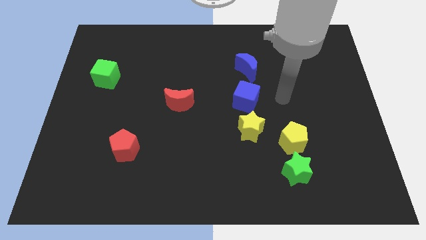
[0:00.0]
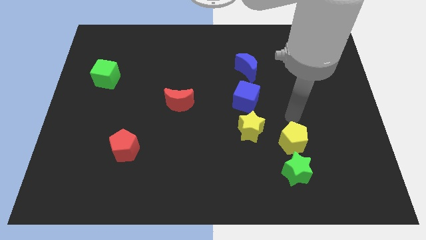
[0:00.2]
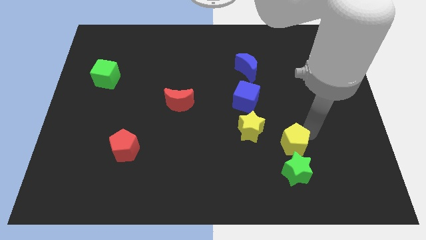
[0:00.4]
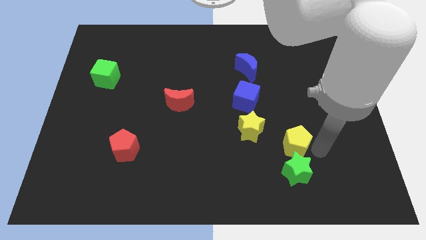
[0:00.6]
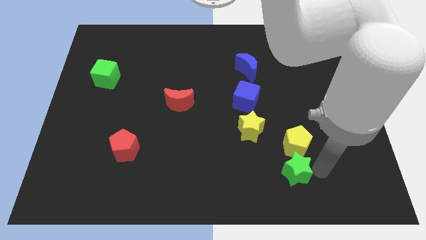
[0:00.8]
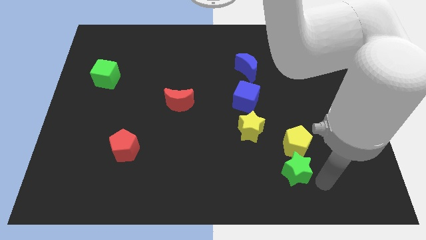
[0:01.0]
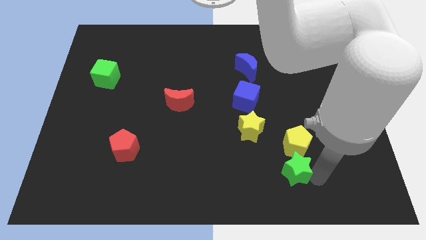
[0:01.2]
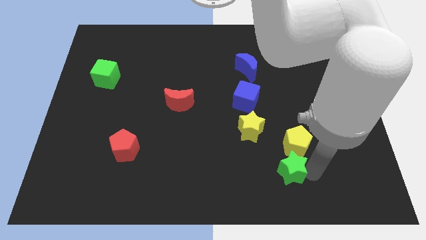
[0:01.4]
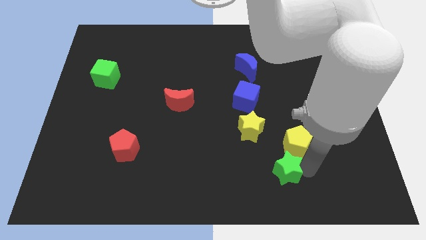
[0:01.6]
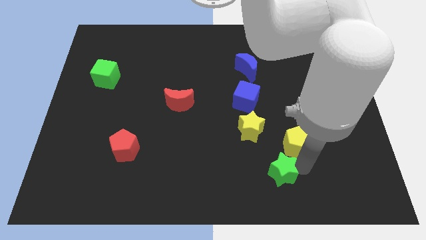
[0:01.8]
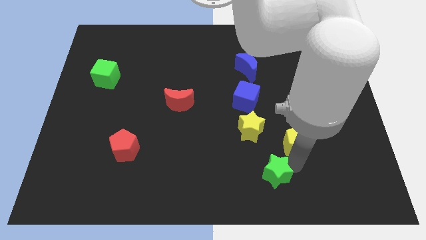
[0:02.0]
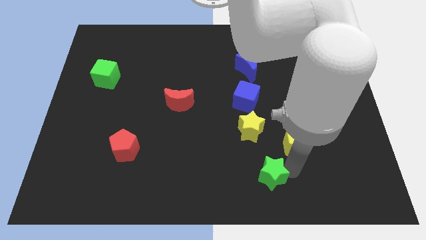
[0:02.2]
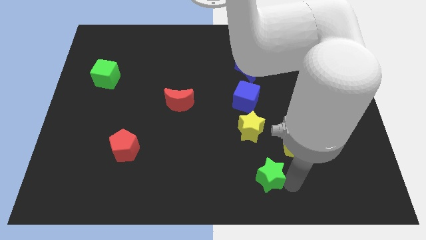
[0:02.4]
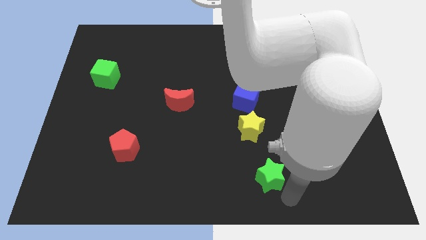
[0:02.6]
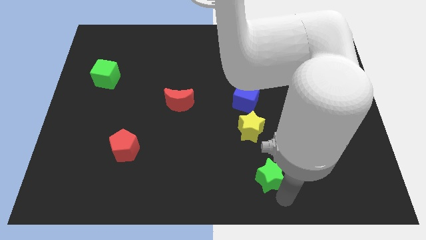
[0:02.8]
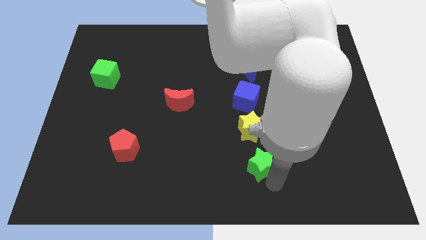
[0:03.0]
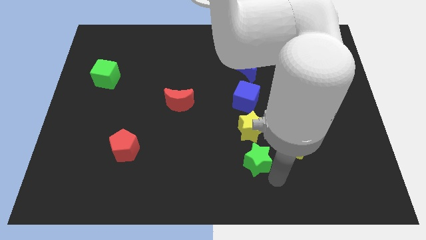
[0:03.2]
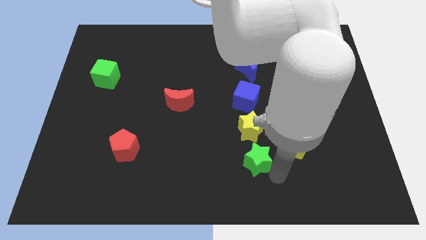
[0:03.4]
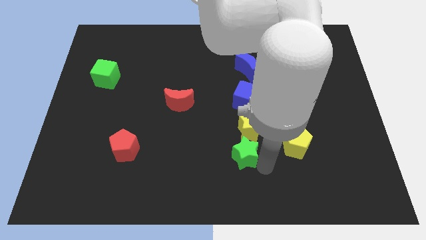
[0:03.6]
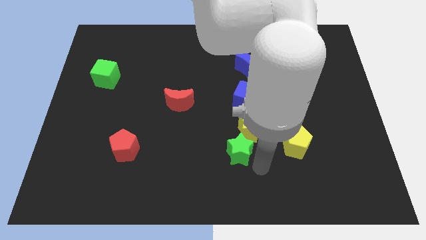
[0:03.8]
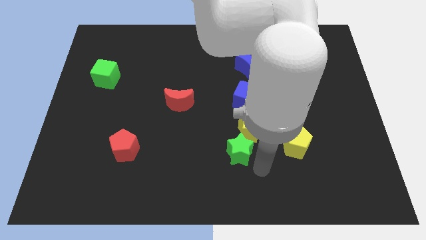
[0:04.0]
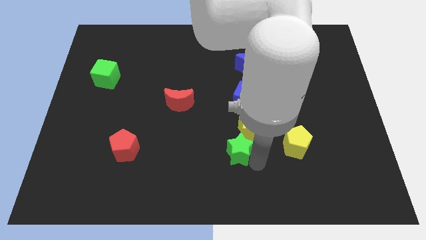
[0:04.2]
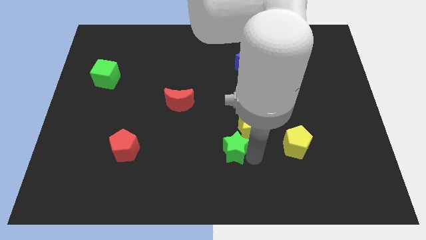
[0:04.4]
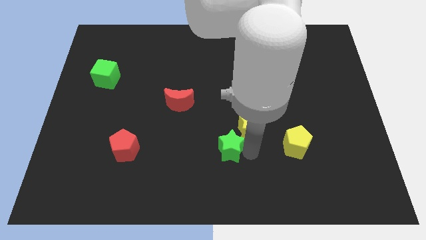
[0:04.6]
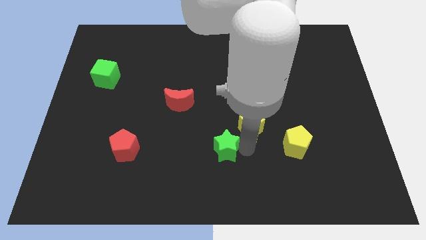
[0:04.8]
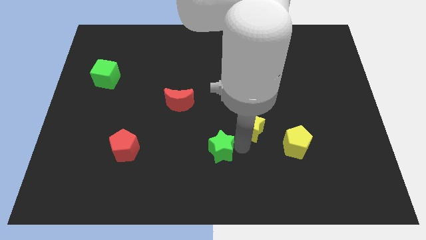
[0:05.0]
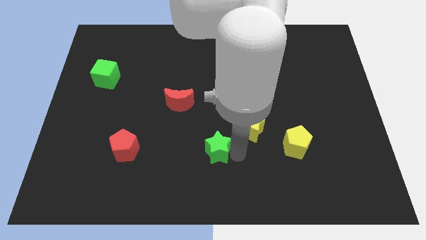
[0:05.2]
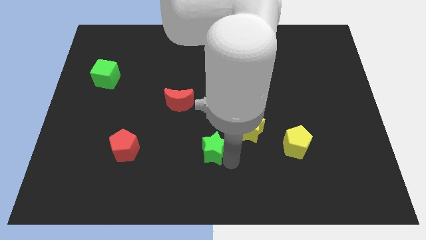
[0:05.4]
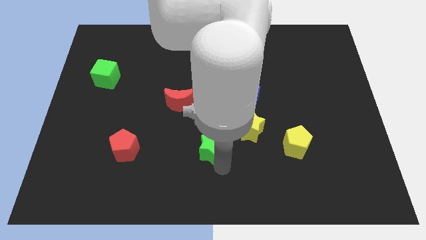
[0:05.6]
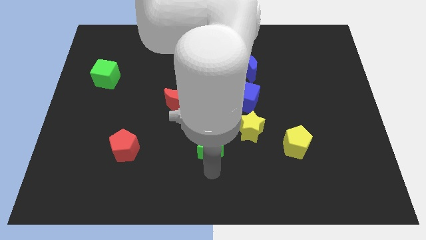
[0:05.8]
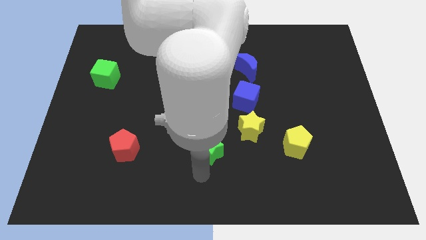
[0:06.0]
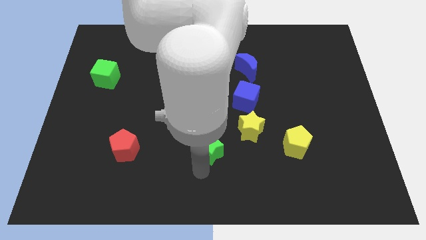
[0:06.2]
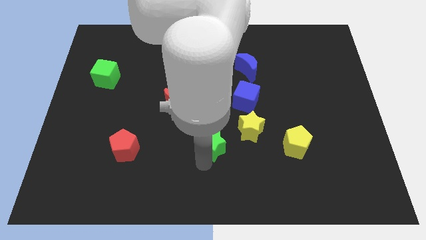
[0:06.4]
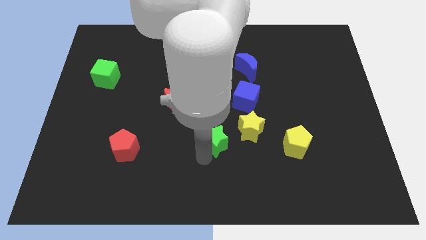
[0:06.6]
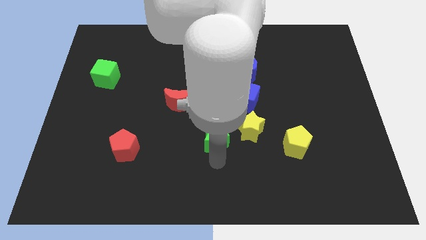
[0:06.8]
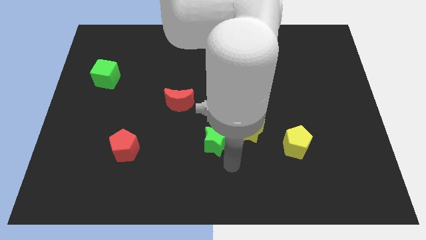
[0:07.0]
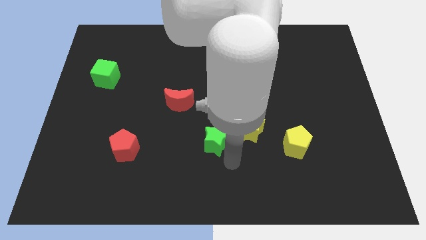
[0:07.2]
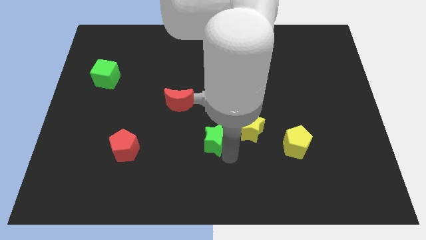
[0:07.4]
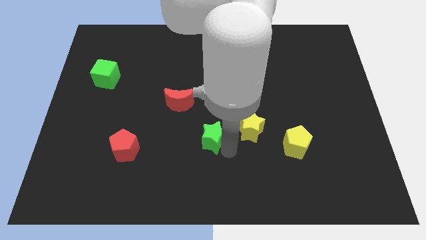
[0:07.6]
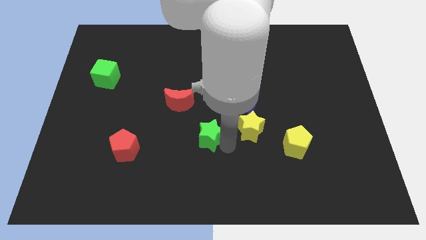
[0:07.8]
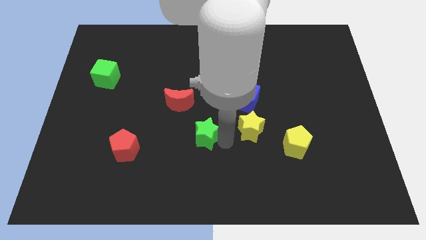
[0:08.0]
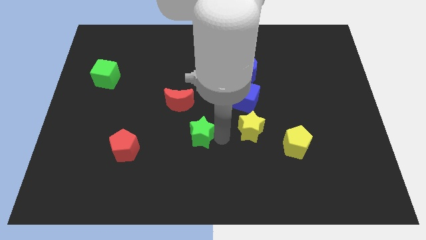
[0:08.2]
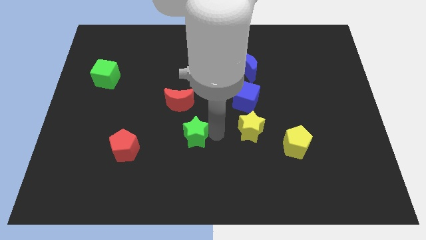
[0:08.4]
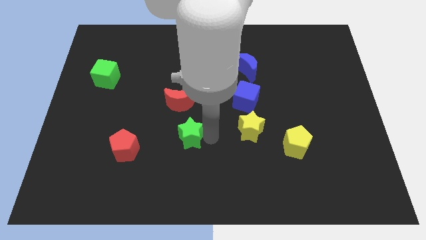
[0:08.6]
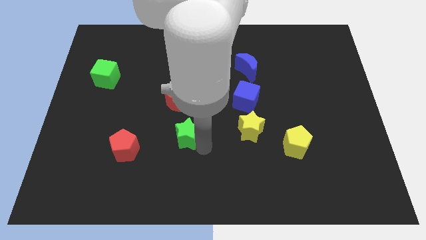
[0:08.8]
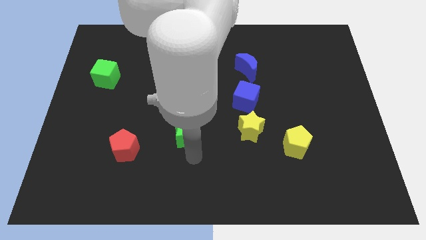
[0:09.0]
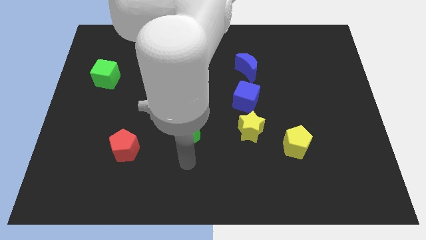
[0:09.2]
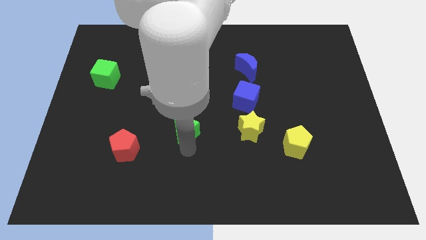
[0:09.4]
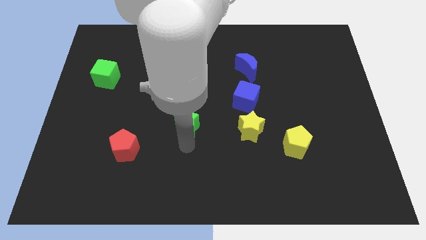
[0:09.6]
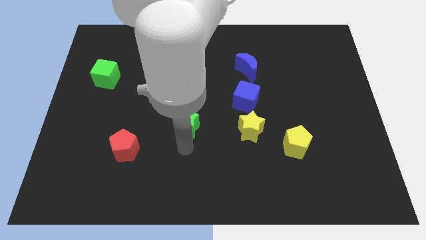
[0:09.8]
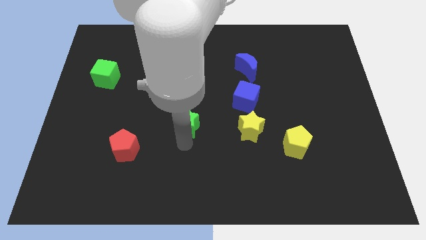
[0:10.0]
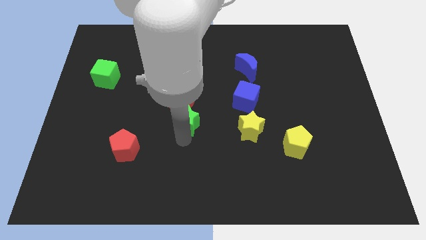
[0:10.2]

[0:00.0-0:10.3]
push the green star towards the red moon

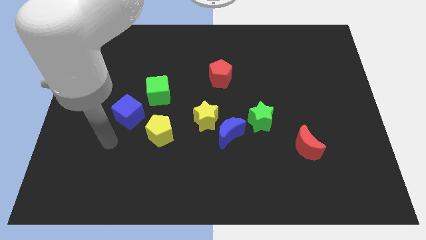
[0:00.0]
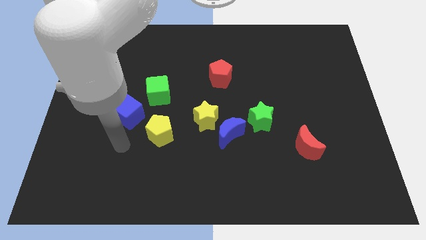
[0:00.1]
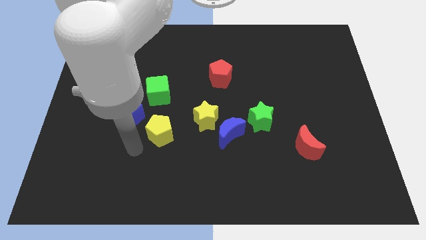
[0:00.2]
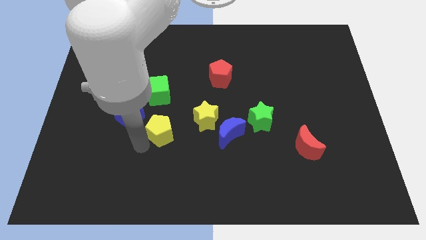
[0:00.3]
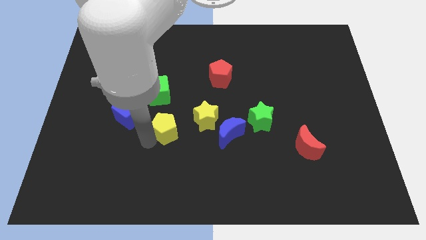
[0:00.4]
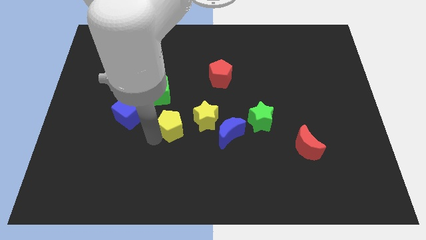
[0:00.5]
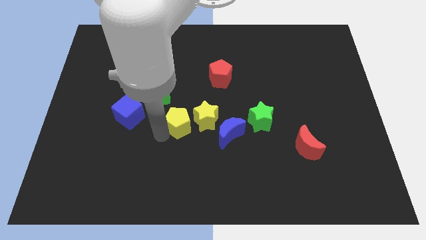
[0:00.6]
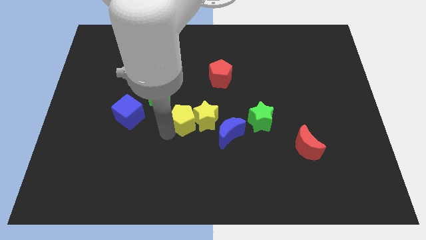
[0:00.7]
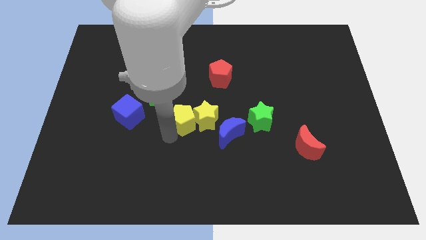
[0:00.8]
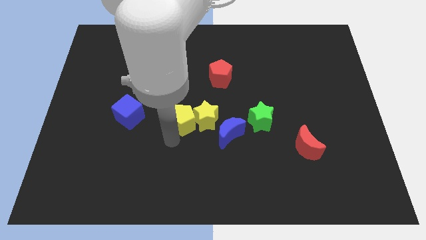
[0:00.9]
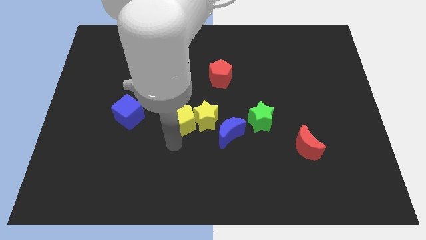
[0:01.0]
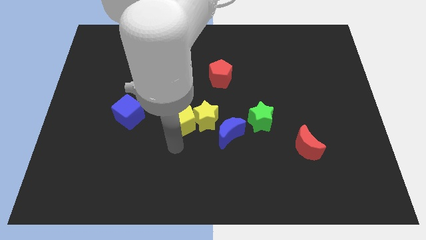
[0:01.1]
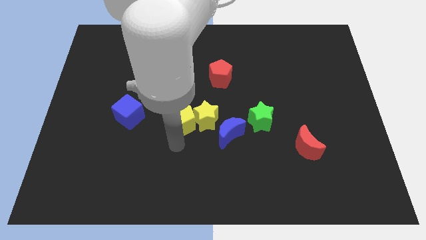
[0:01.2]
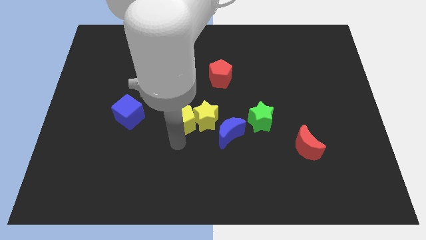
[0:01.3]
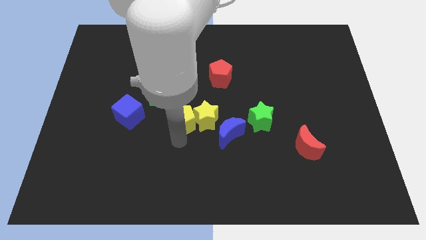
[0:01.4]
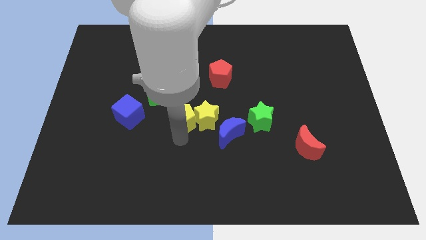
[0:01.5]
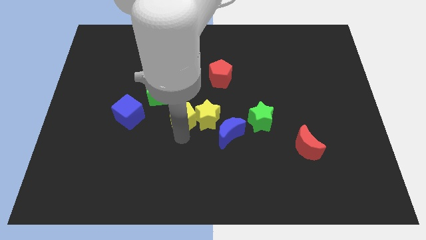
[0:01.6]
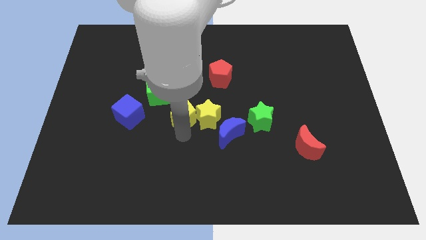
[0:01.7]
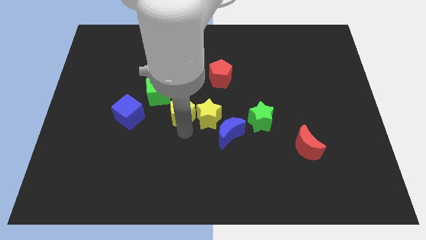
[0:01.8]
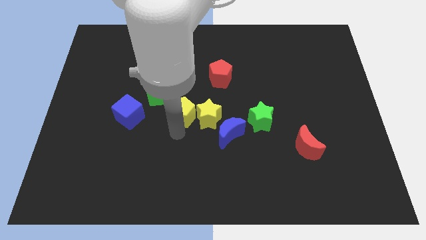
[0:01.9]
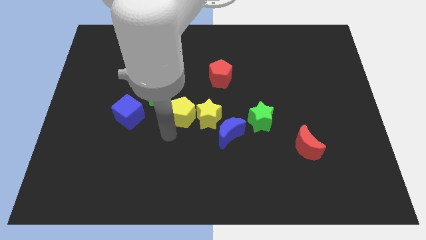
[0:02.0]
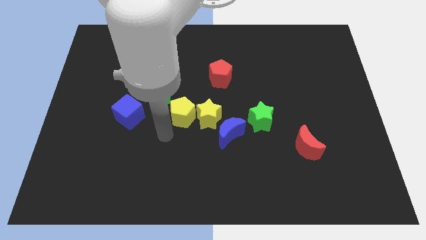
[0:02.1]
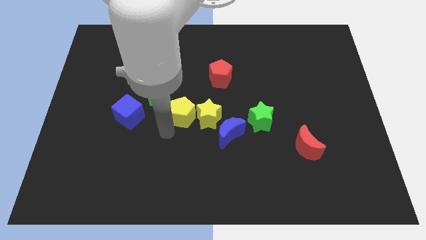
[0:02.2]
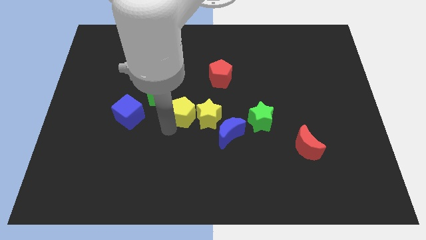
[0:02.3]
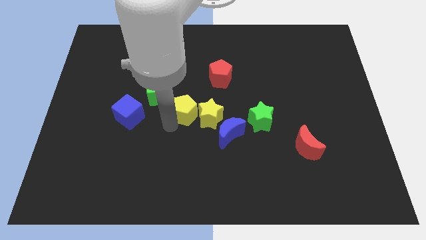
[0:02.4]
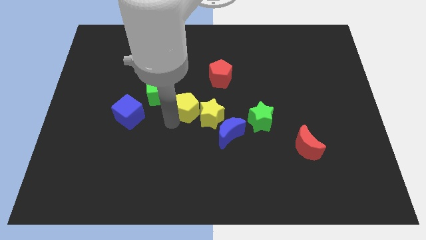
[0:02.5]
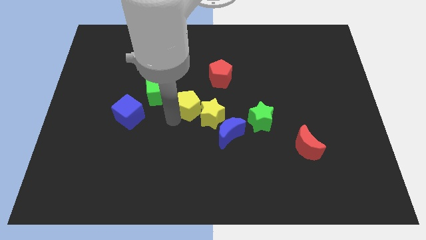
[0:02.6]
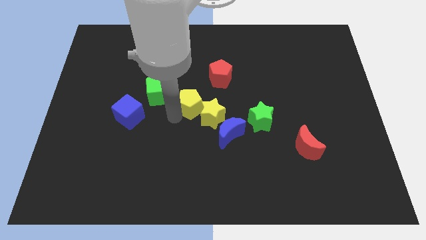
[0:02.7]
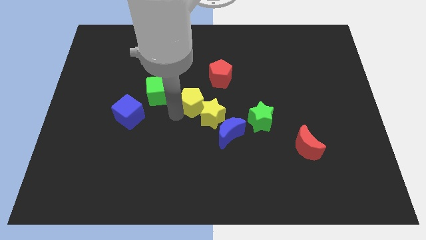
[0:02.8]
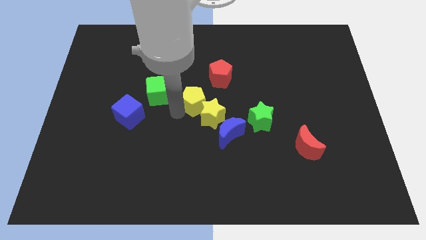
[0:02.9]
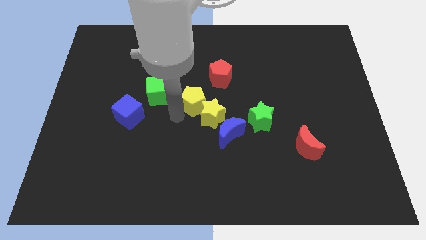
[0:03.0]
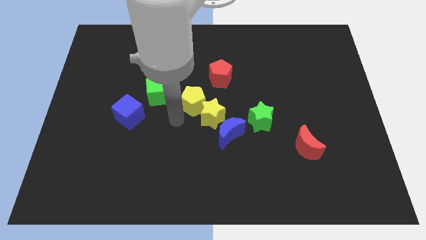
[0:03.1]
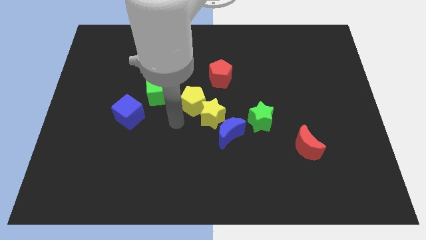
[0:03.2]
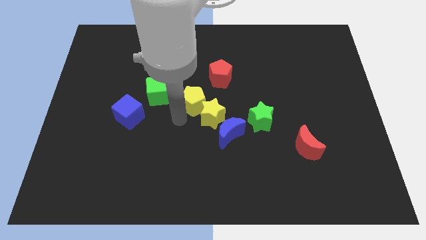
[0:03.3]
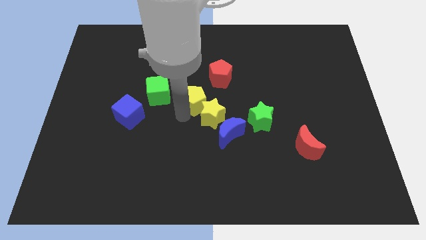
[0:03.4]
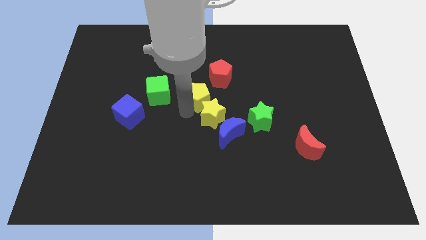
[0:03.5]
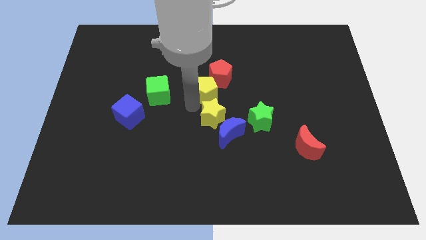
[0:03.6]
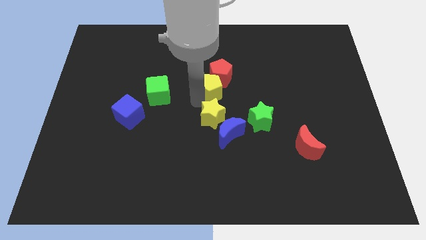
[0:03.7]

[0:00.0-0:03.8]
push the yellow pentagon to the red pentagon

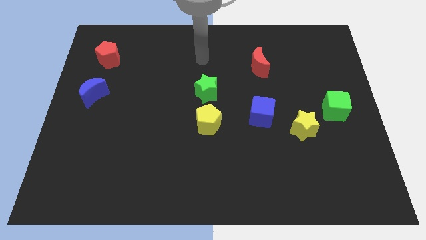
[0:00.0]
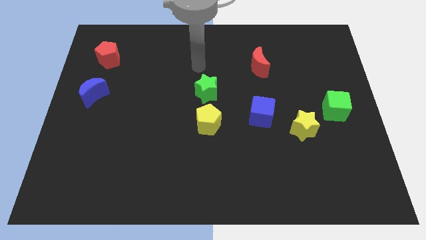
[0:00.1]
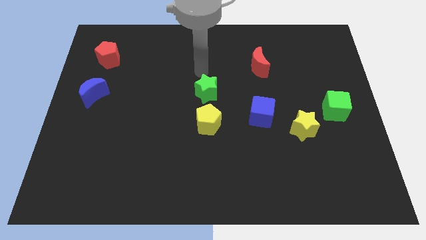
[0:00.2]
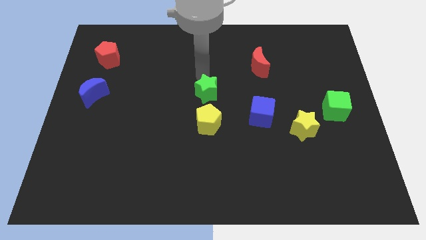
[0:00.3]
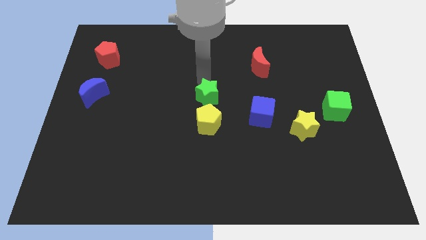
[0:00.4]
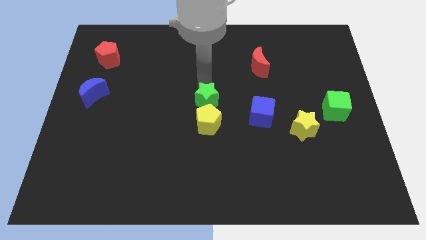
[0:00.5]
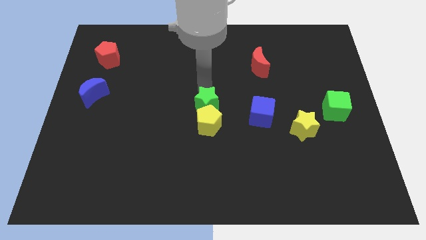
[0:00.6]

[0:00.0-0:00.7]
slide the green star next to the yellow pentagon
